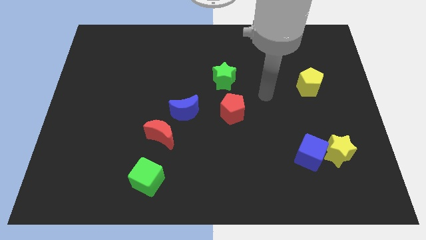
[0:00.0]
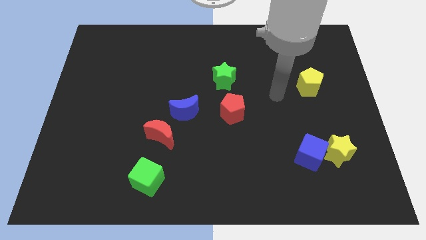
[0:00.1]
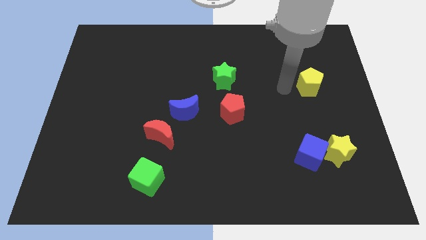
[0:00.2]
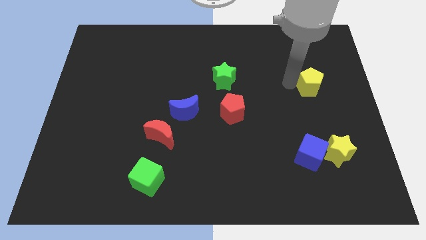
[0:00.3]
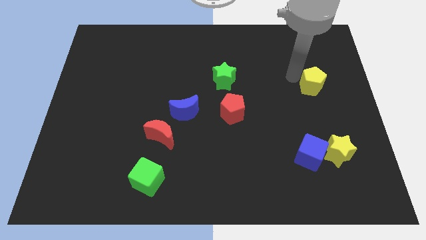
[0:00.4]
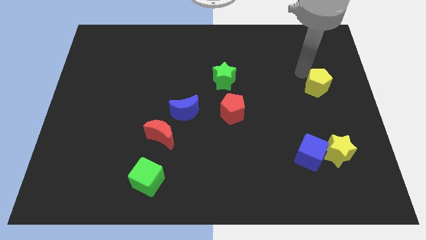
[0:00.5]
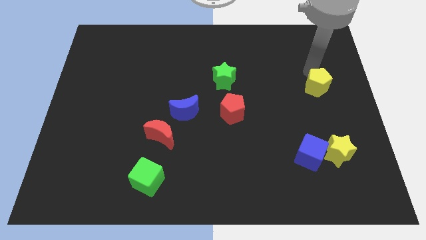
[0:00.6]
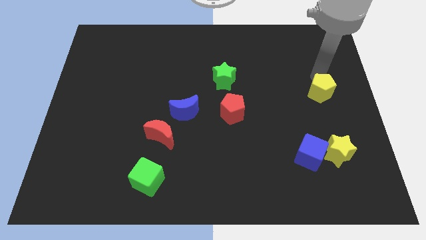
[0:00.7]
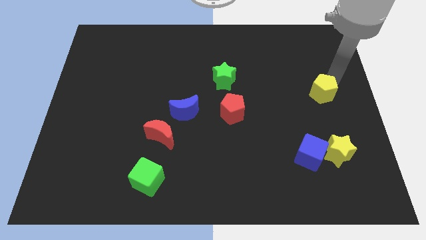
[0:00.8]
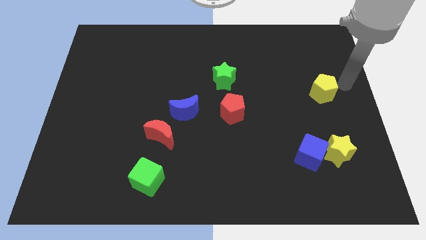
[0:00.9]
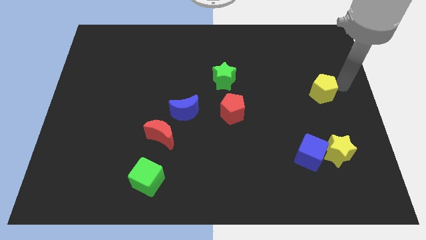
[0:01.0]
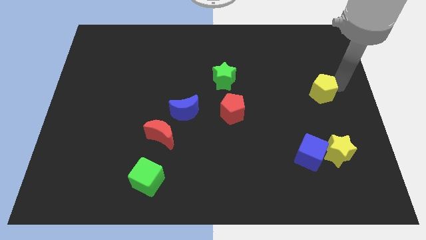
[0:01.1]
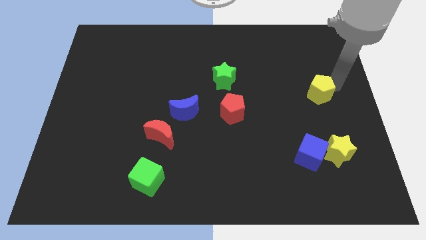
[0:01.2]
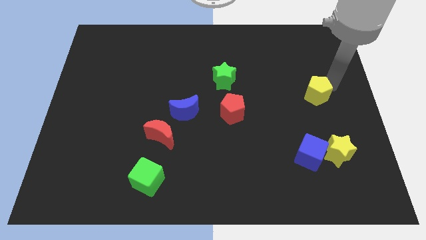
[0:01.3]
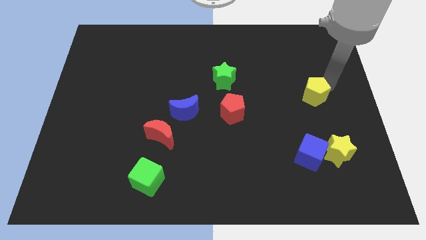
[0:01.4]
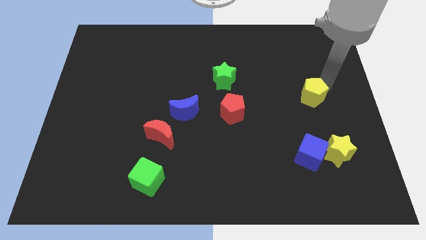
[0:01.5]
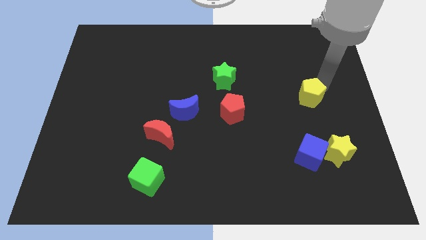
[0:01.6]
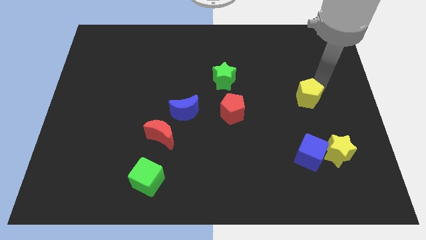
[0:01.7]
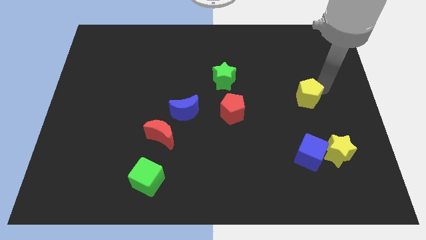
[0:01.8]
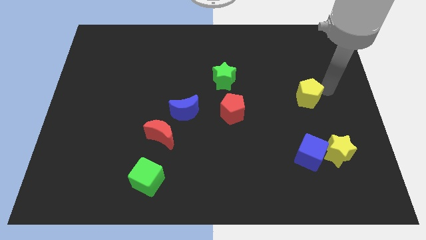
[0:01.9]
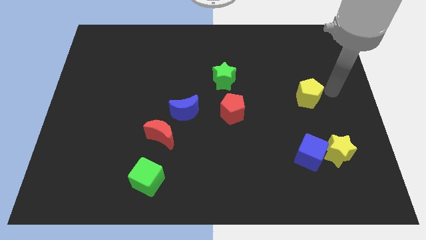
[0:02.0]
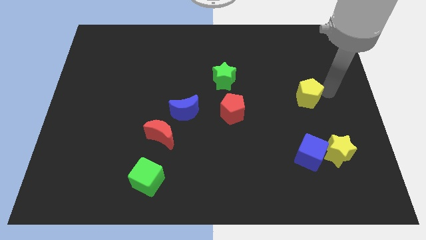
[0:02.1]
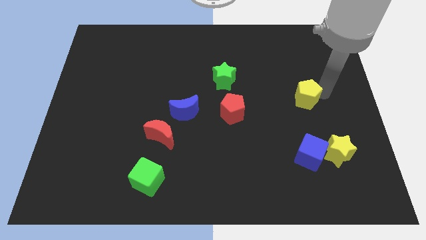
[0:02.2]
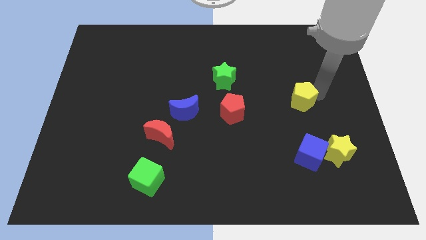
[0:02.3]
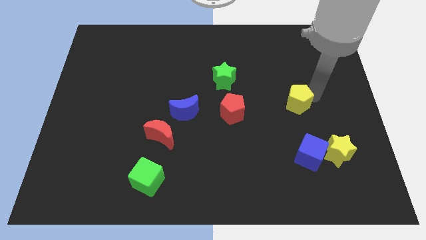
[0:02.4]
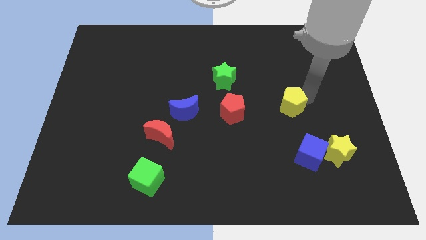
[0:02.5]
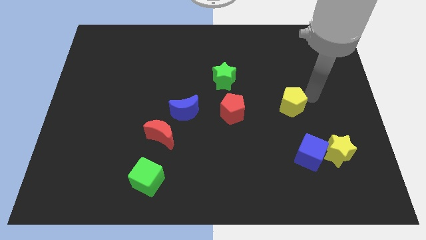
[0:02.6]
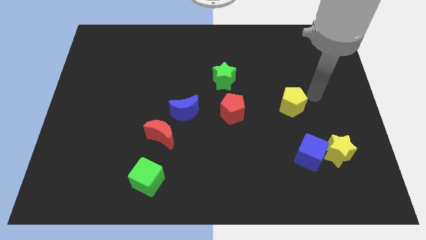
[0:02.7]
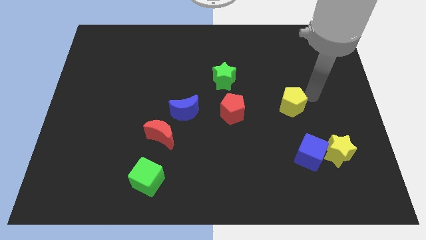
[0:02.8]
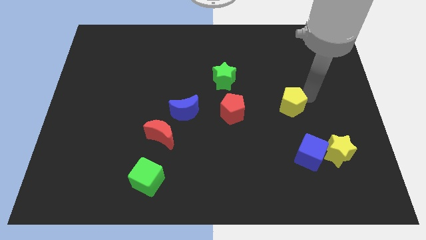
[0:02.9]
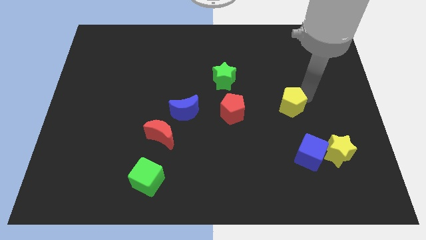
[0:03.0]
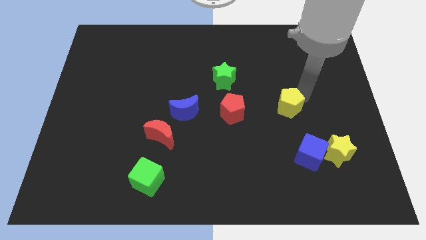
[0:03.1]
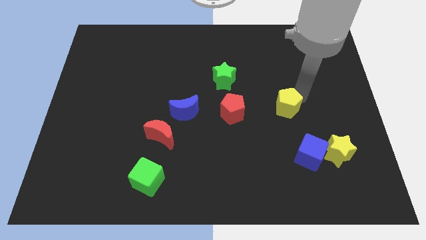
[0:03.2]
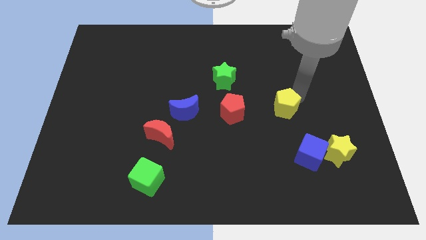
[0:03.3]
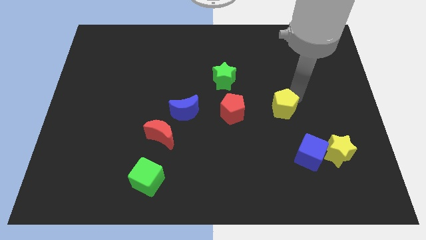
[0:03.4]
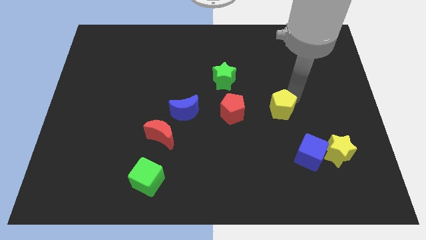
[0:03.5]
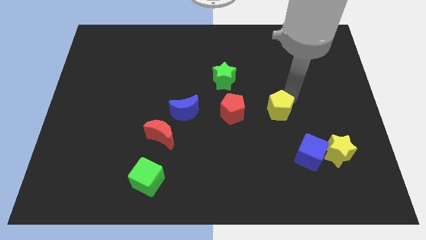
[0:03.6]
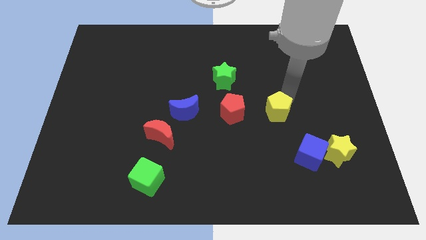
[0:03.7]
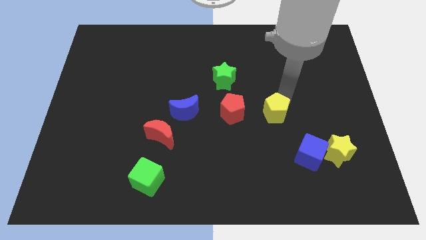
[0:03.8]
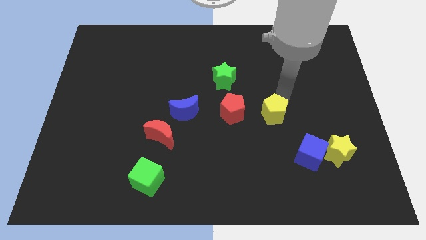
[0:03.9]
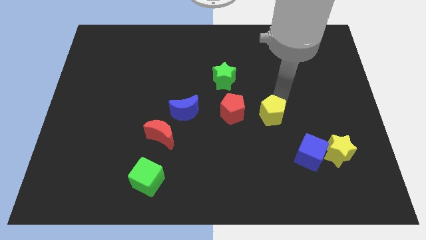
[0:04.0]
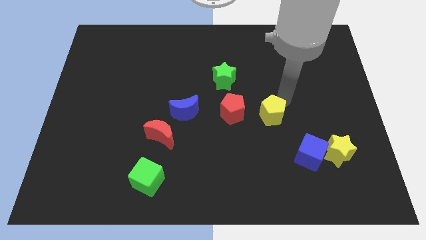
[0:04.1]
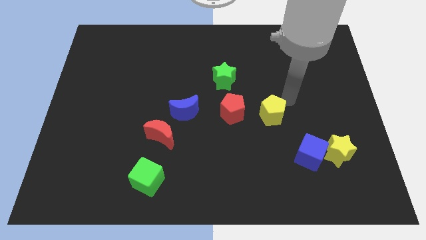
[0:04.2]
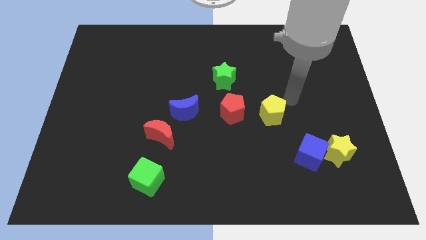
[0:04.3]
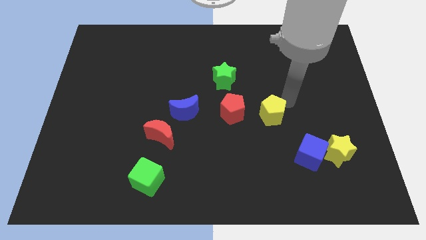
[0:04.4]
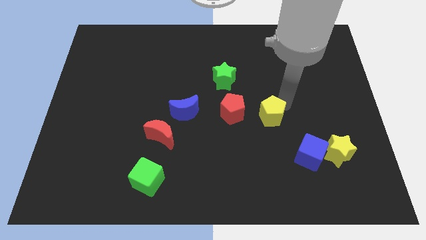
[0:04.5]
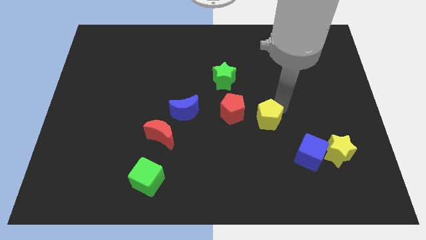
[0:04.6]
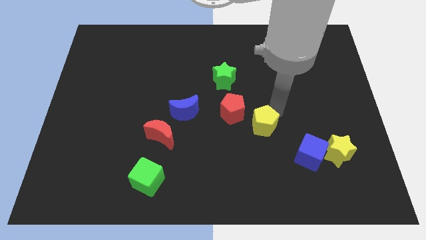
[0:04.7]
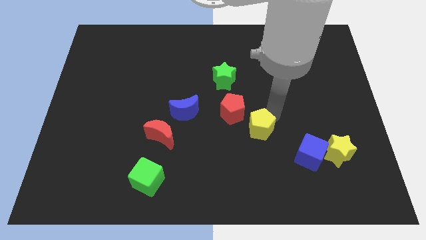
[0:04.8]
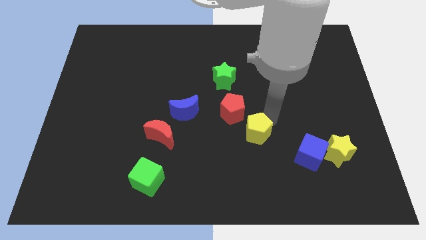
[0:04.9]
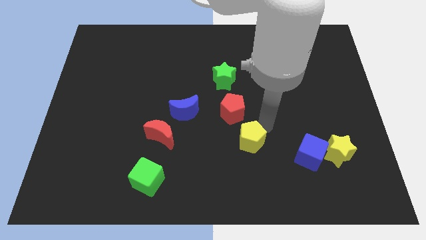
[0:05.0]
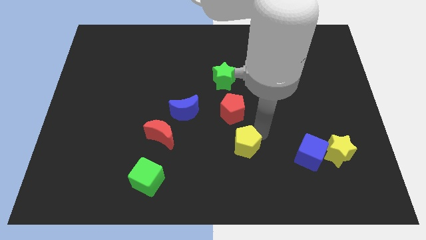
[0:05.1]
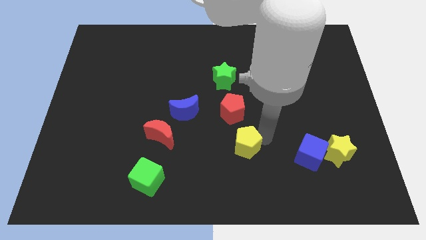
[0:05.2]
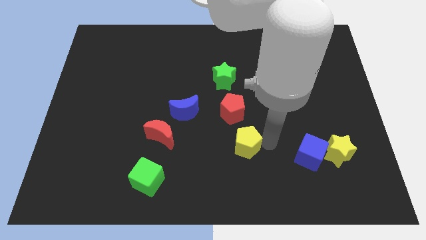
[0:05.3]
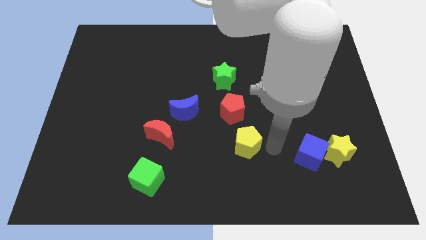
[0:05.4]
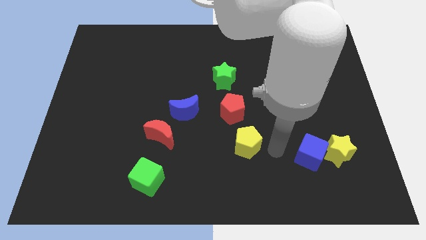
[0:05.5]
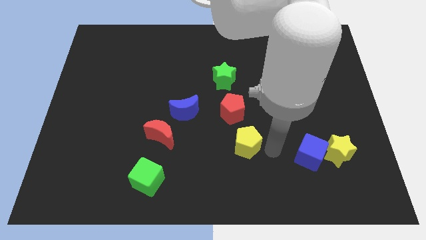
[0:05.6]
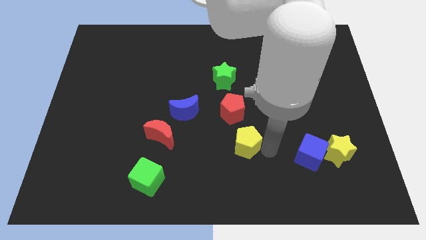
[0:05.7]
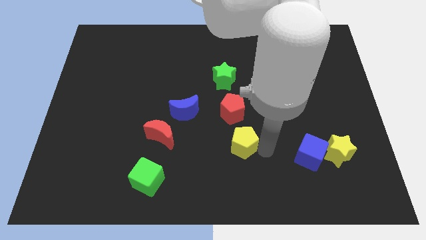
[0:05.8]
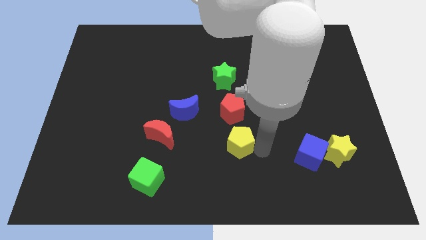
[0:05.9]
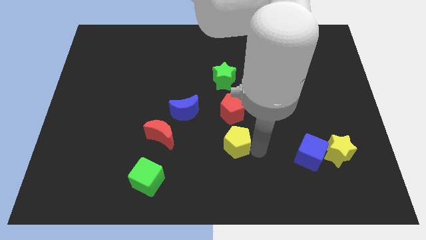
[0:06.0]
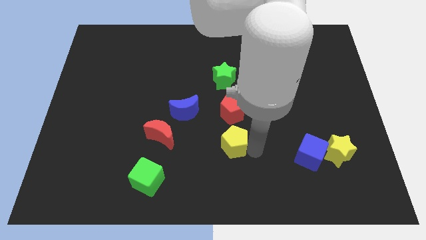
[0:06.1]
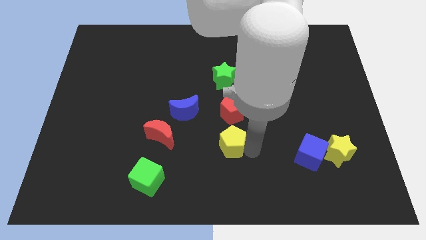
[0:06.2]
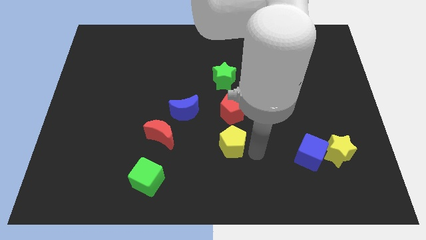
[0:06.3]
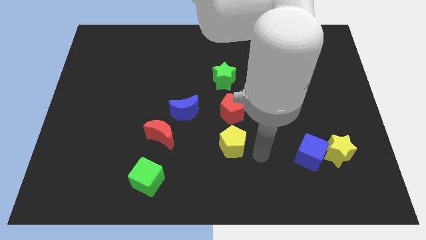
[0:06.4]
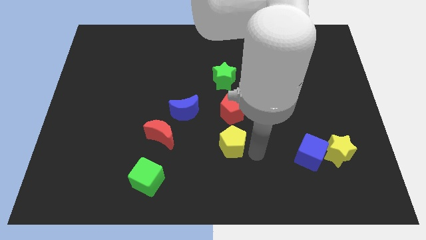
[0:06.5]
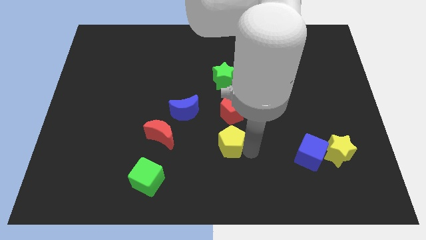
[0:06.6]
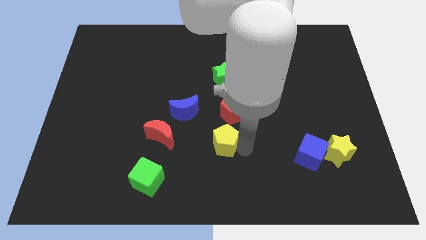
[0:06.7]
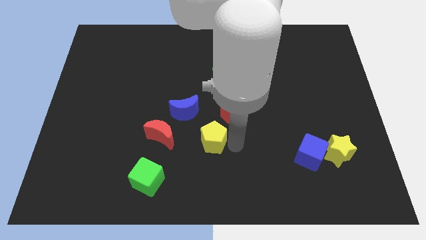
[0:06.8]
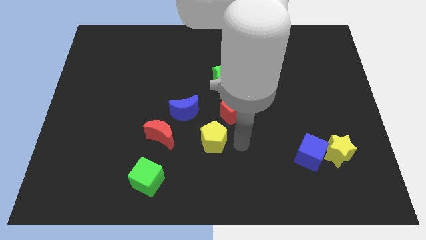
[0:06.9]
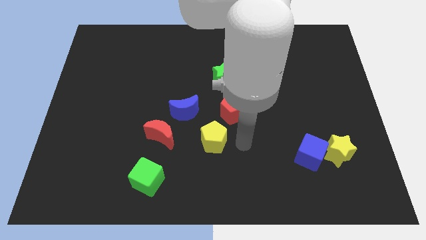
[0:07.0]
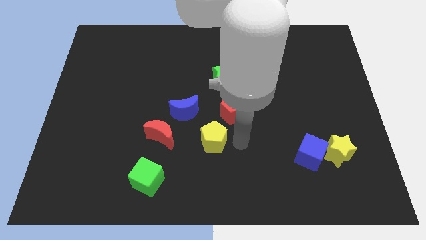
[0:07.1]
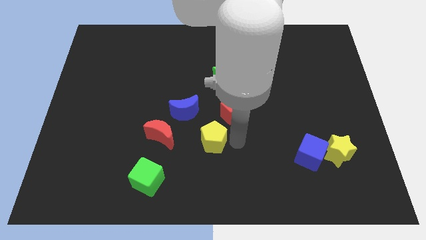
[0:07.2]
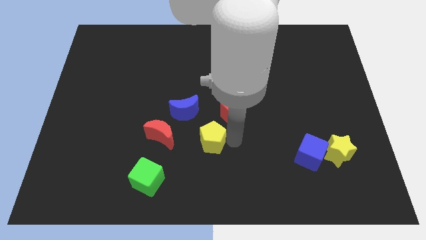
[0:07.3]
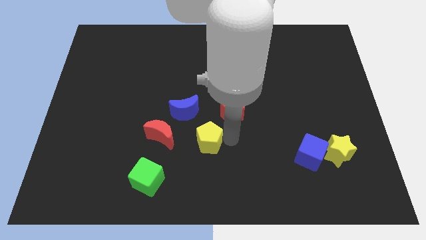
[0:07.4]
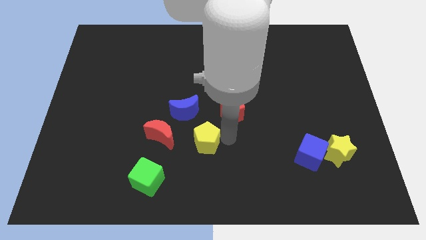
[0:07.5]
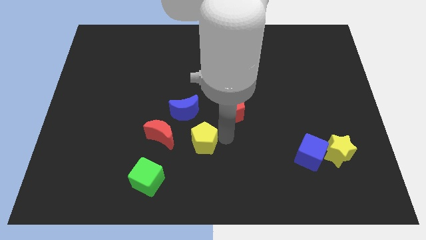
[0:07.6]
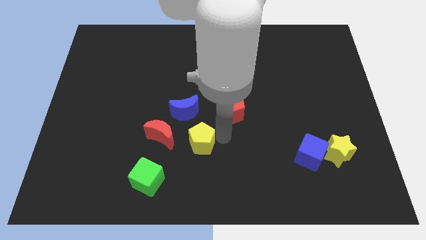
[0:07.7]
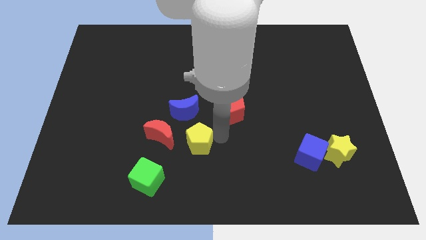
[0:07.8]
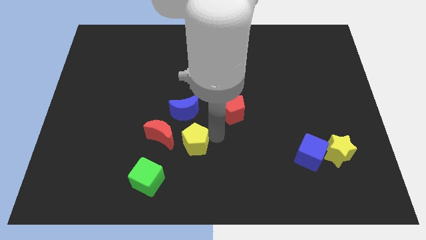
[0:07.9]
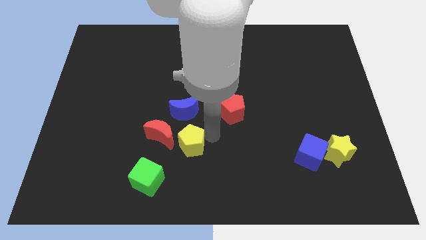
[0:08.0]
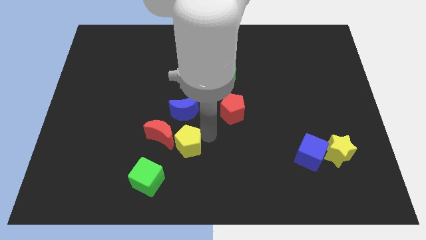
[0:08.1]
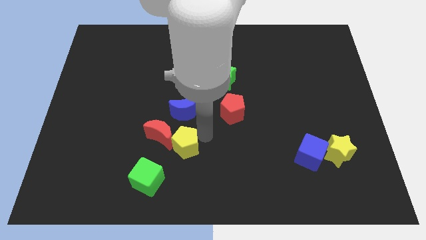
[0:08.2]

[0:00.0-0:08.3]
slide the yellow pentagon towards the red moon
